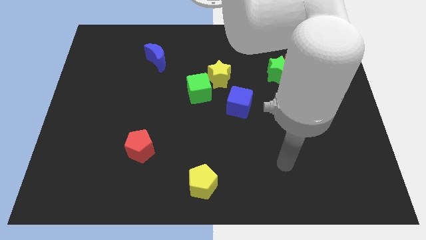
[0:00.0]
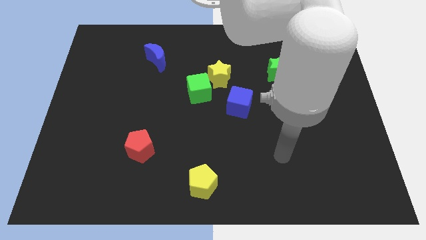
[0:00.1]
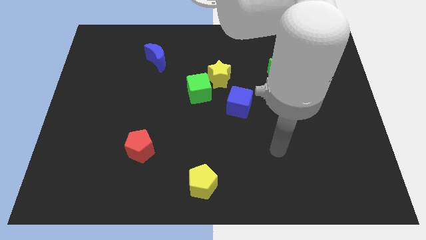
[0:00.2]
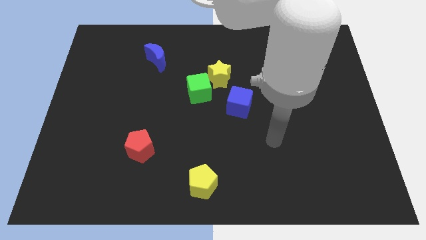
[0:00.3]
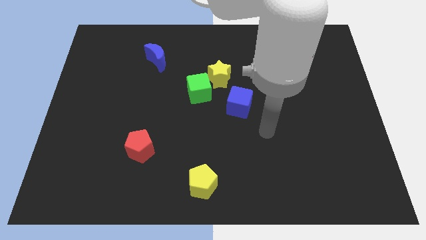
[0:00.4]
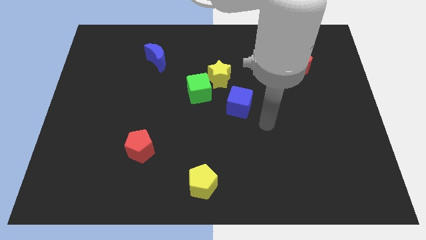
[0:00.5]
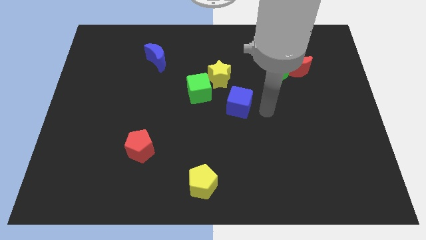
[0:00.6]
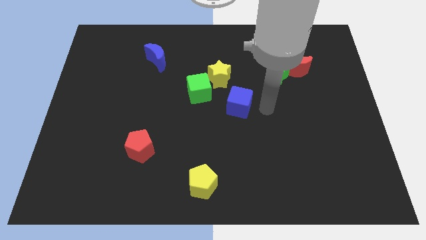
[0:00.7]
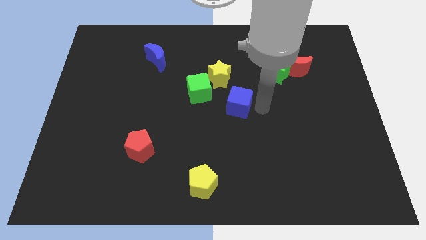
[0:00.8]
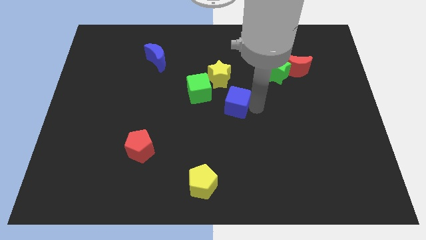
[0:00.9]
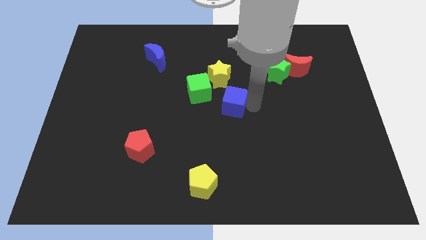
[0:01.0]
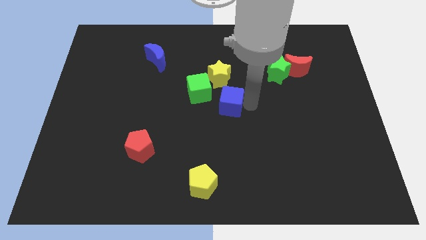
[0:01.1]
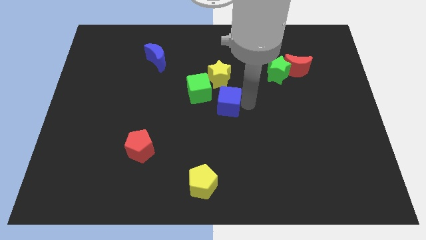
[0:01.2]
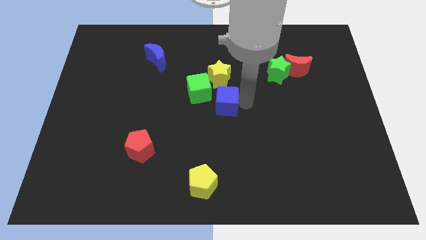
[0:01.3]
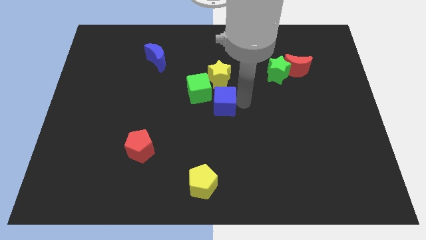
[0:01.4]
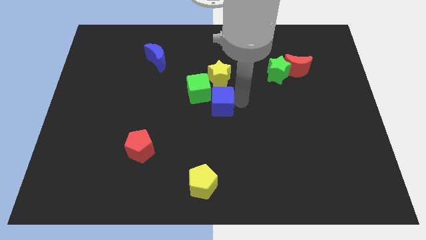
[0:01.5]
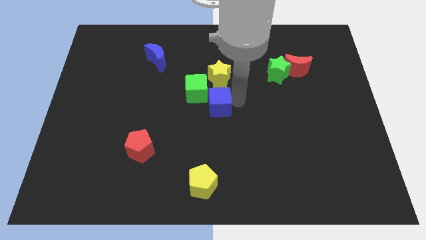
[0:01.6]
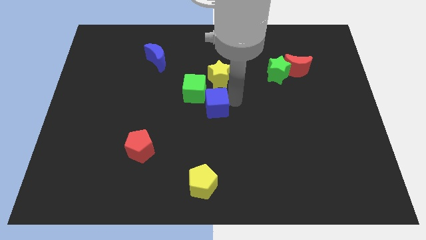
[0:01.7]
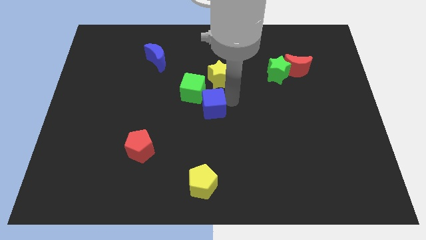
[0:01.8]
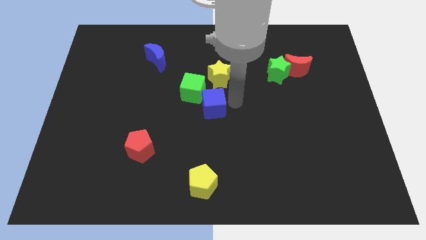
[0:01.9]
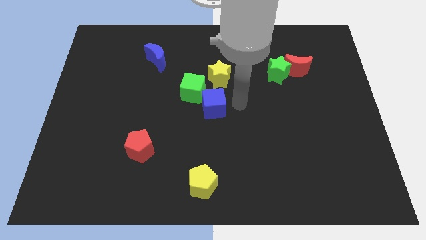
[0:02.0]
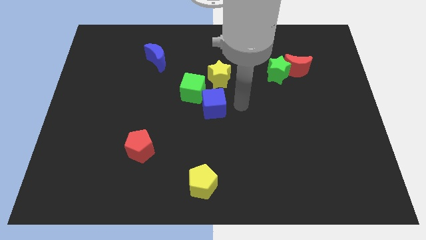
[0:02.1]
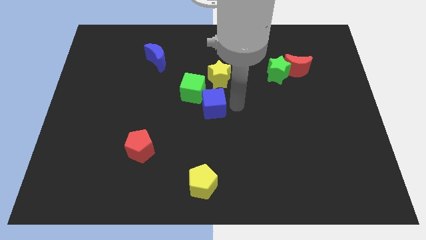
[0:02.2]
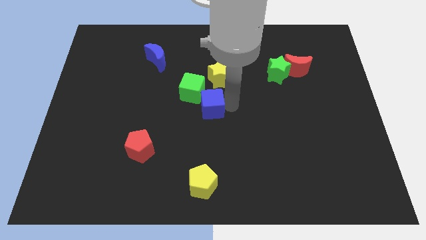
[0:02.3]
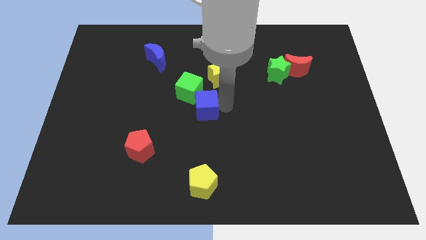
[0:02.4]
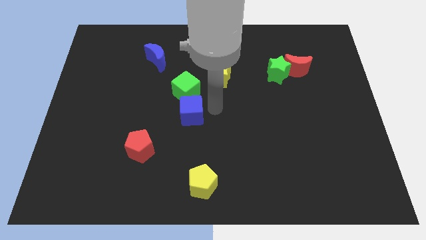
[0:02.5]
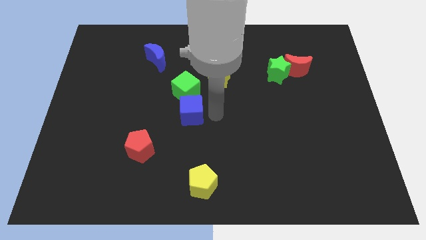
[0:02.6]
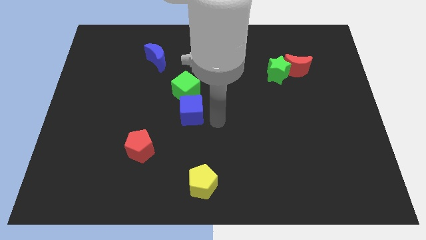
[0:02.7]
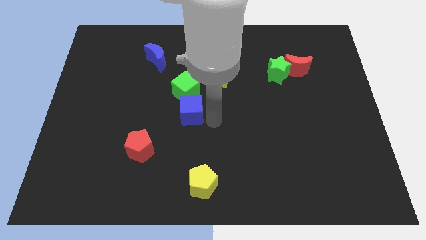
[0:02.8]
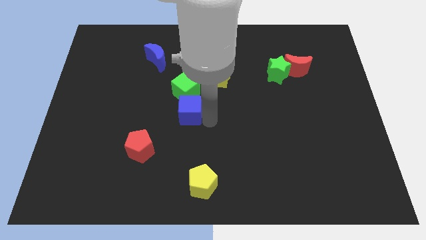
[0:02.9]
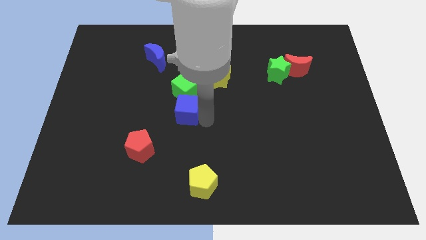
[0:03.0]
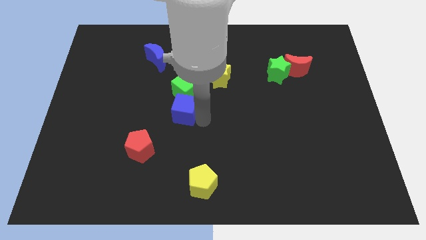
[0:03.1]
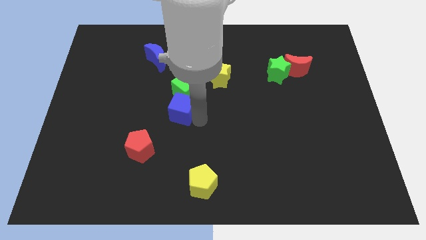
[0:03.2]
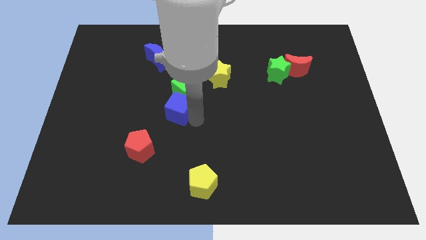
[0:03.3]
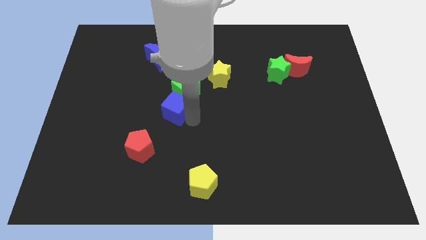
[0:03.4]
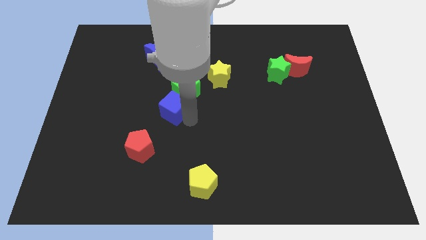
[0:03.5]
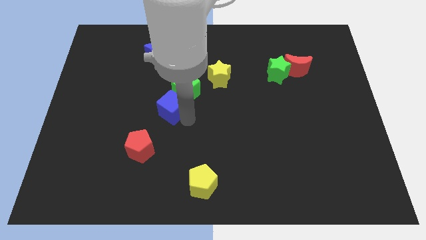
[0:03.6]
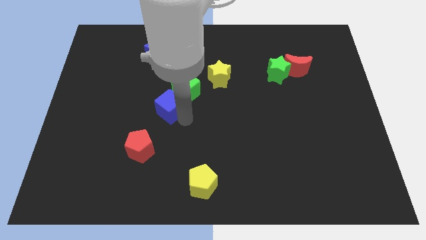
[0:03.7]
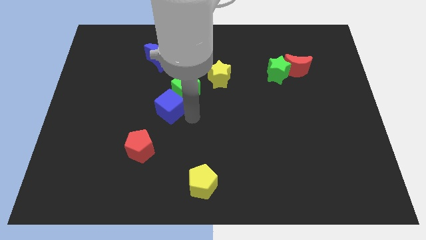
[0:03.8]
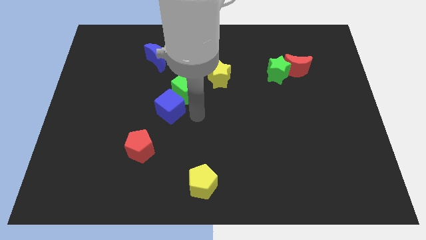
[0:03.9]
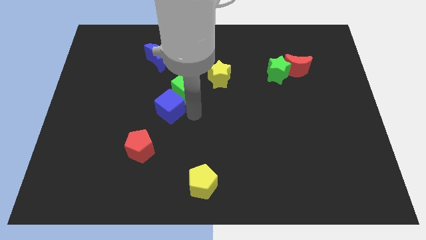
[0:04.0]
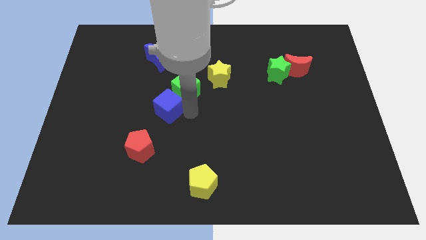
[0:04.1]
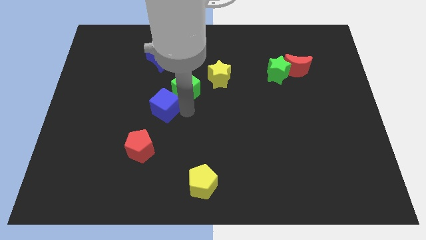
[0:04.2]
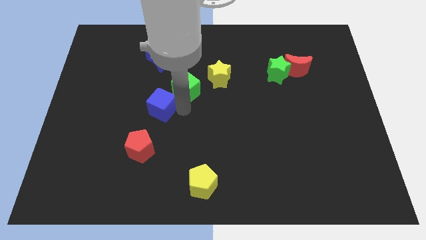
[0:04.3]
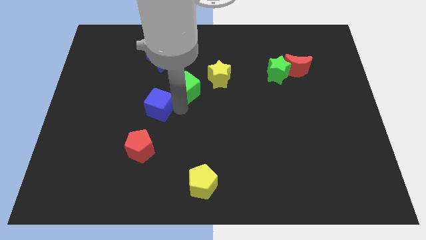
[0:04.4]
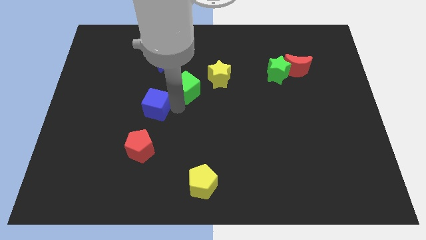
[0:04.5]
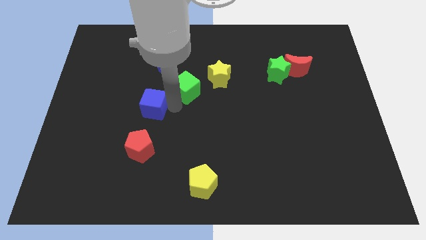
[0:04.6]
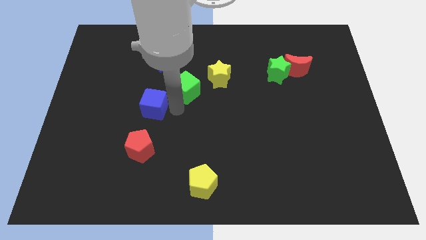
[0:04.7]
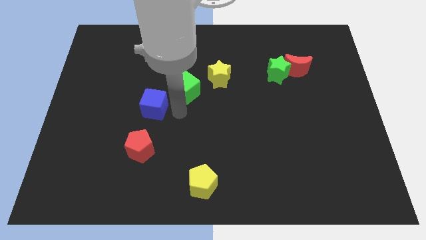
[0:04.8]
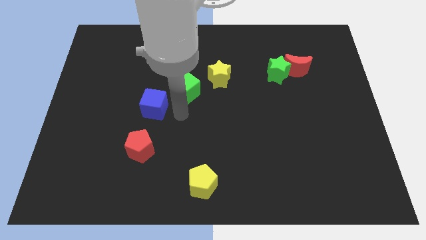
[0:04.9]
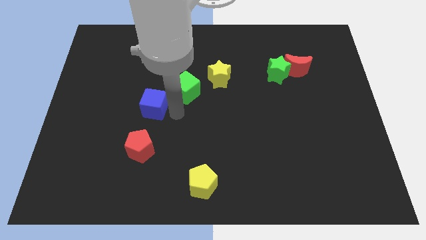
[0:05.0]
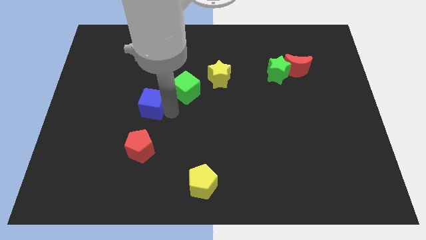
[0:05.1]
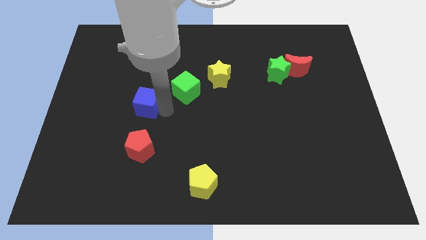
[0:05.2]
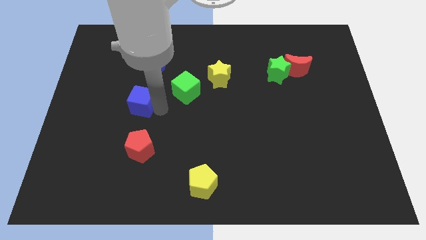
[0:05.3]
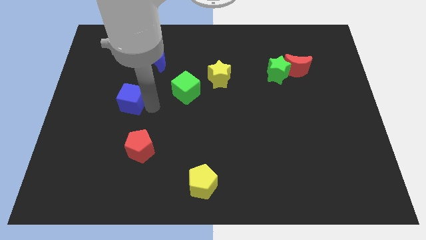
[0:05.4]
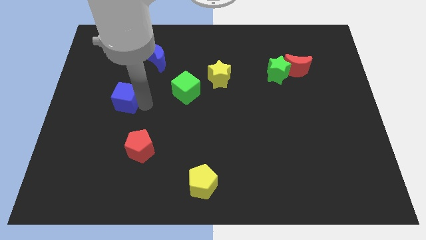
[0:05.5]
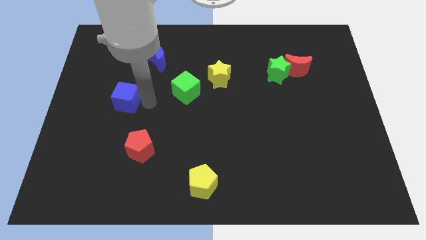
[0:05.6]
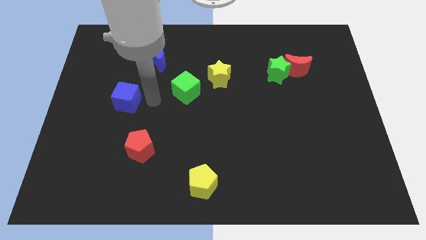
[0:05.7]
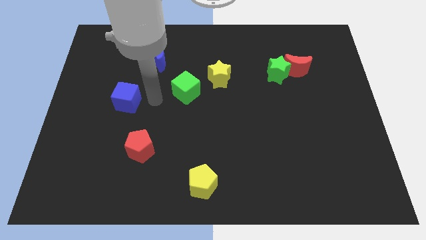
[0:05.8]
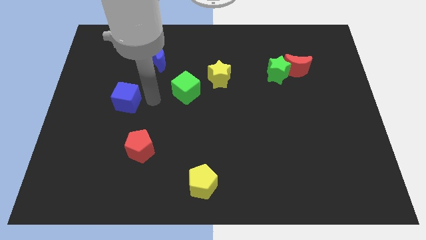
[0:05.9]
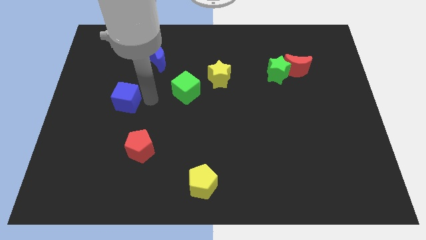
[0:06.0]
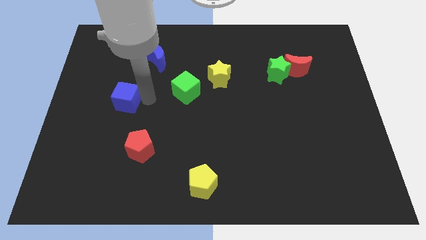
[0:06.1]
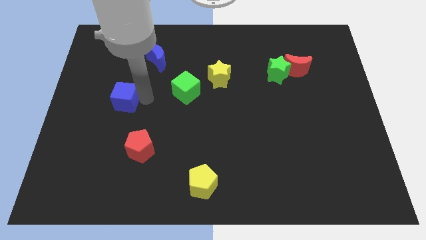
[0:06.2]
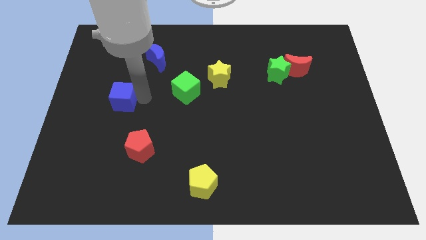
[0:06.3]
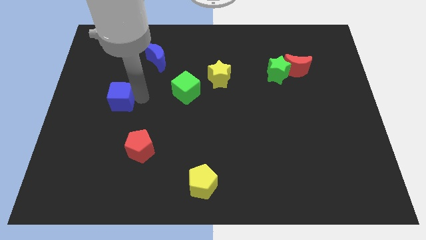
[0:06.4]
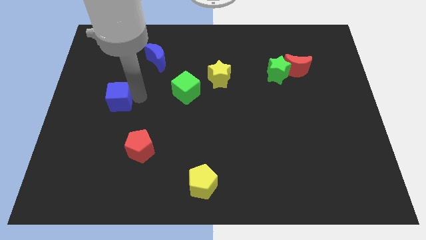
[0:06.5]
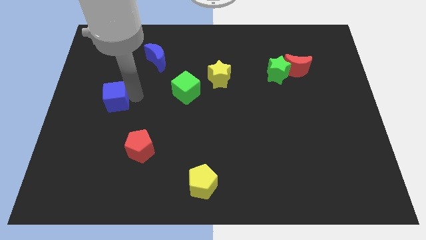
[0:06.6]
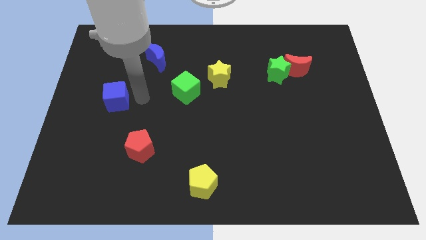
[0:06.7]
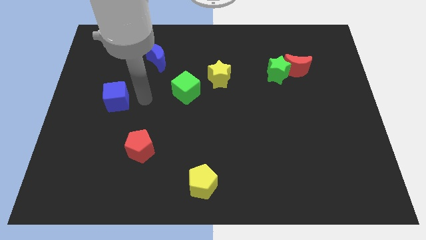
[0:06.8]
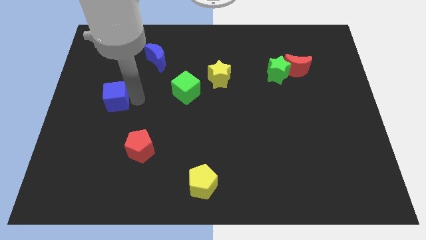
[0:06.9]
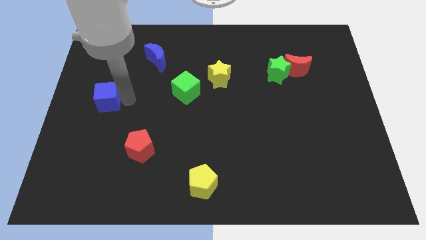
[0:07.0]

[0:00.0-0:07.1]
put the blue cube to the left side
